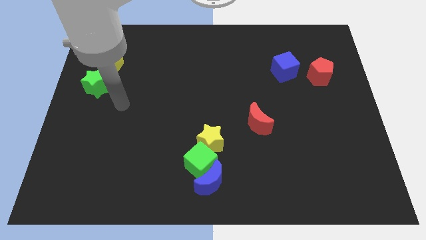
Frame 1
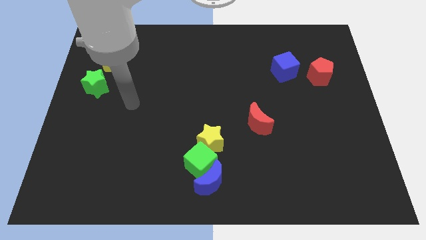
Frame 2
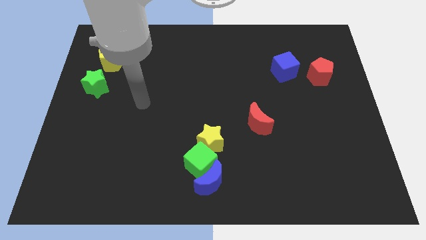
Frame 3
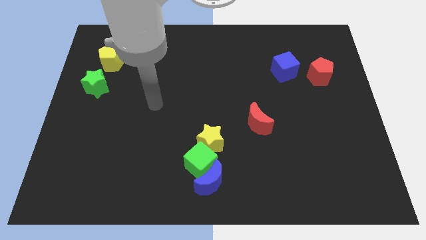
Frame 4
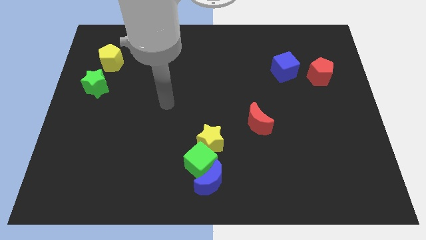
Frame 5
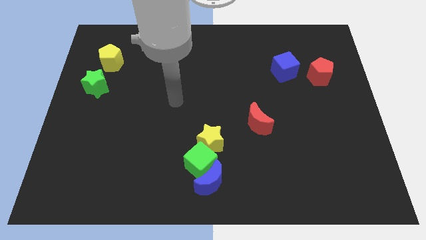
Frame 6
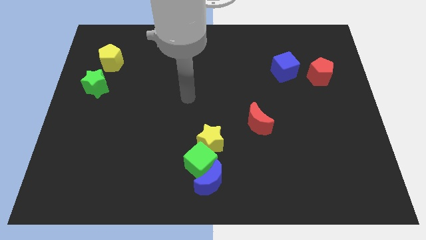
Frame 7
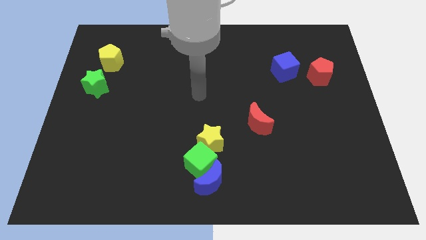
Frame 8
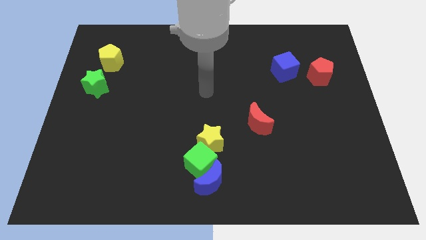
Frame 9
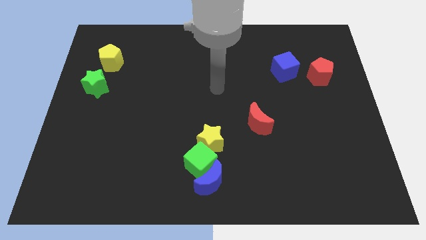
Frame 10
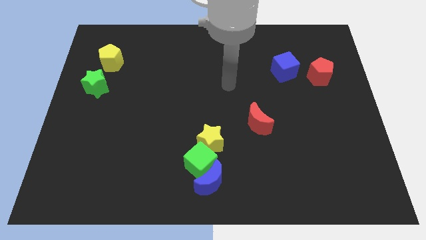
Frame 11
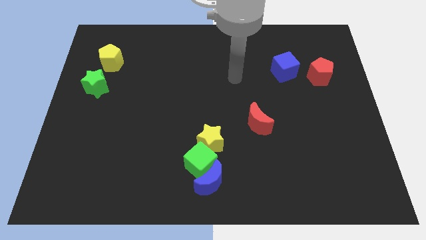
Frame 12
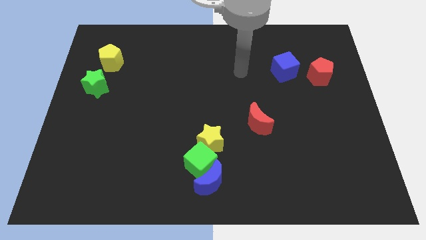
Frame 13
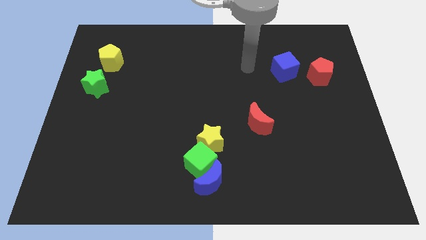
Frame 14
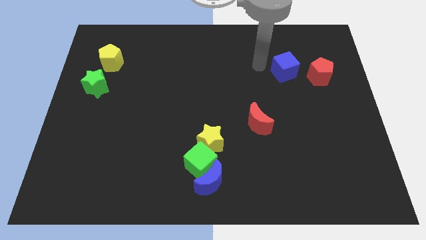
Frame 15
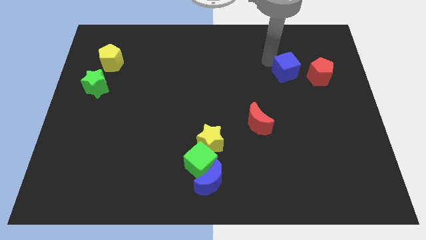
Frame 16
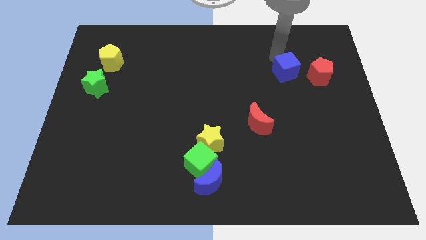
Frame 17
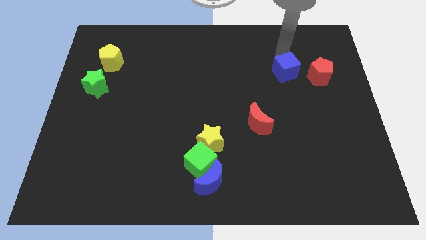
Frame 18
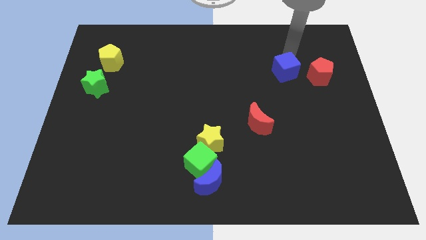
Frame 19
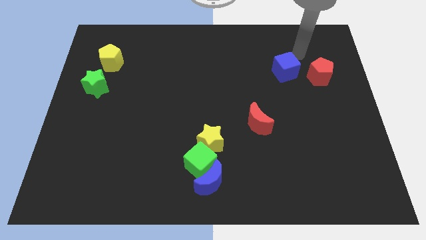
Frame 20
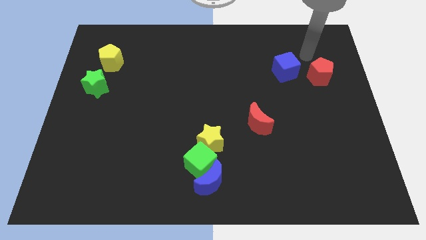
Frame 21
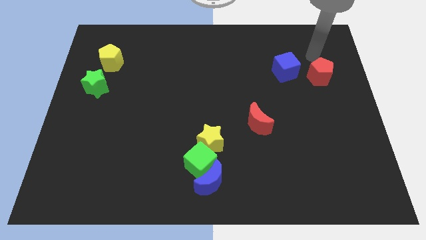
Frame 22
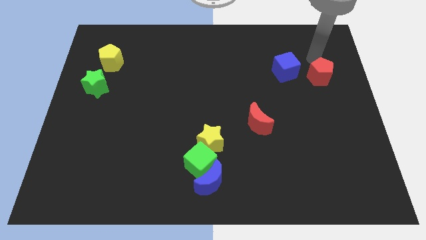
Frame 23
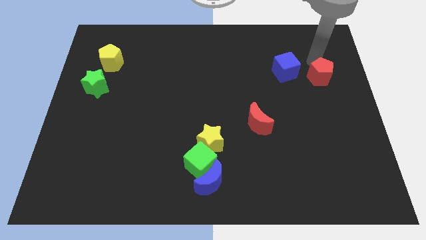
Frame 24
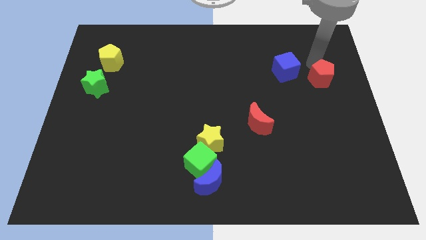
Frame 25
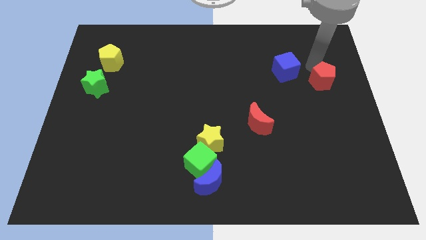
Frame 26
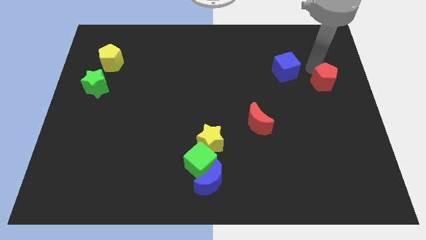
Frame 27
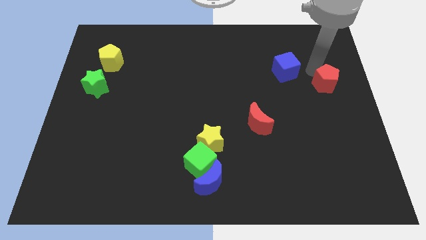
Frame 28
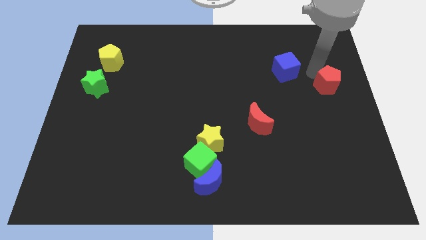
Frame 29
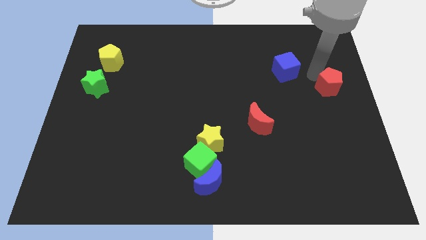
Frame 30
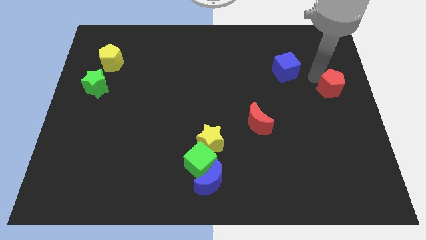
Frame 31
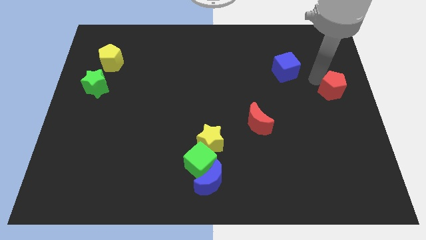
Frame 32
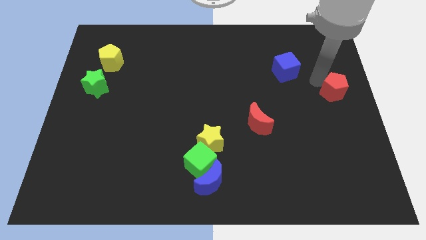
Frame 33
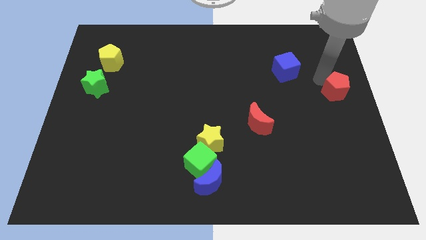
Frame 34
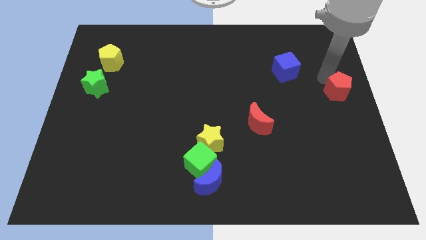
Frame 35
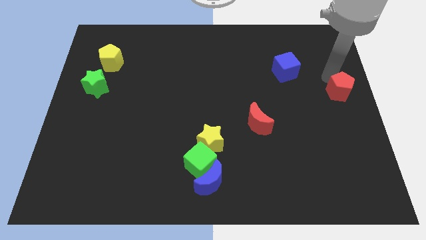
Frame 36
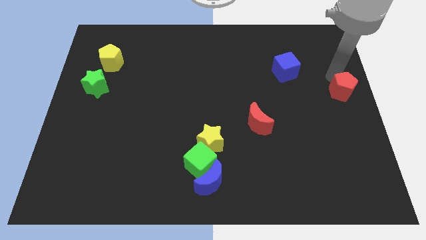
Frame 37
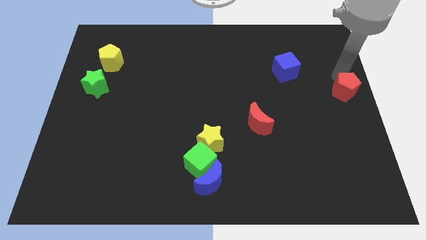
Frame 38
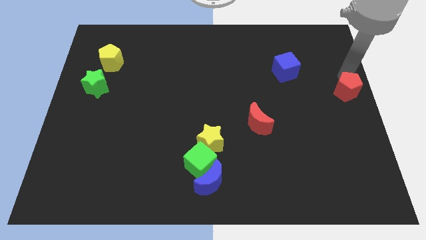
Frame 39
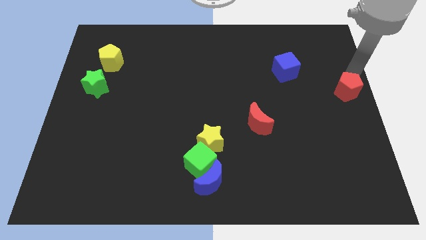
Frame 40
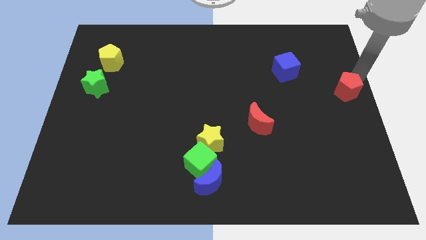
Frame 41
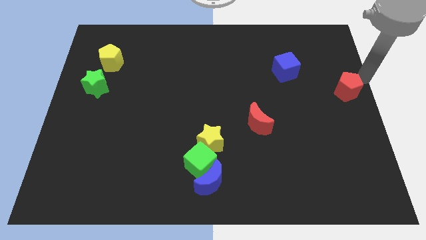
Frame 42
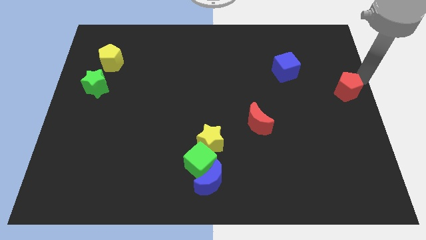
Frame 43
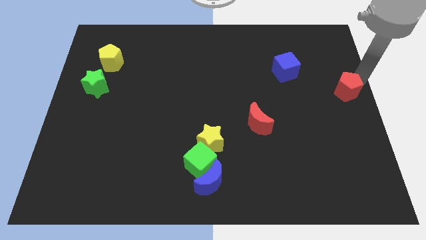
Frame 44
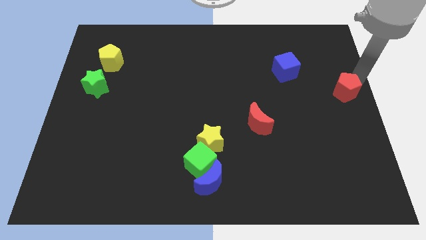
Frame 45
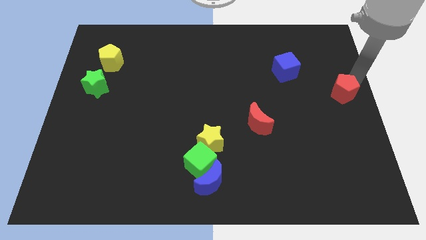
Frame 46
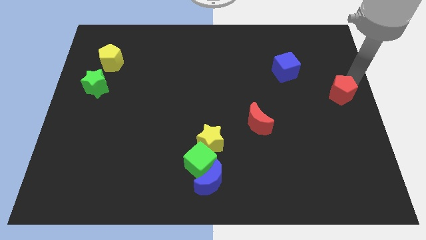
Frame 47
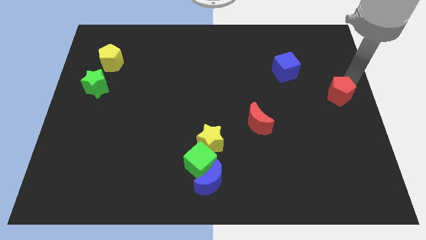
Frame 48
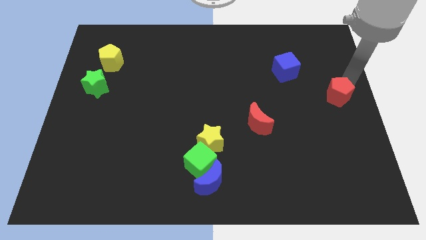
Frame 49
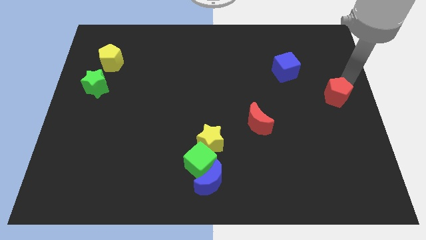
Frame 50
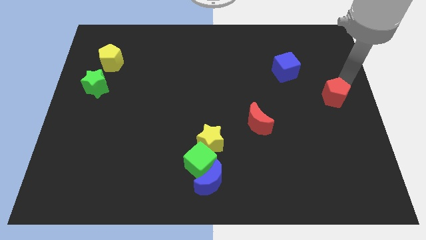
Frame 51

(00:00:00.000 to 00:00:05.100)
slightly push the red pentagon down

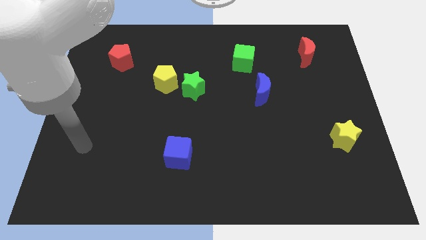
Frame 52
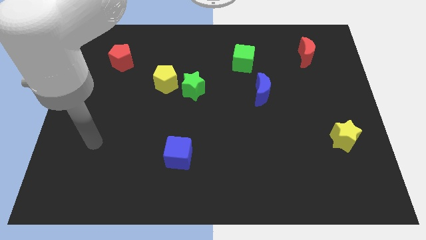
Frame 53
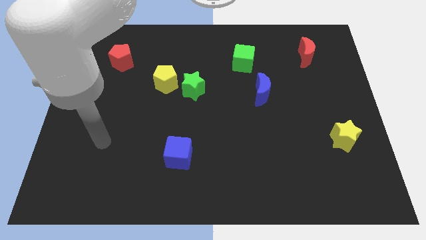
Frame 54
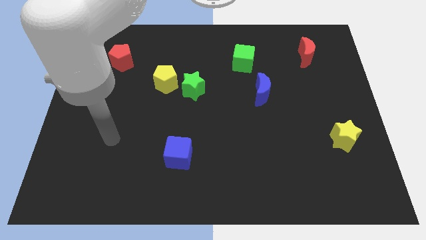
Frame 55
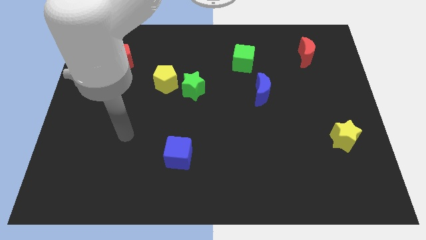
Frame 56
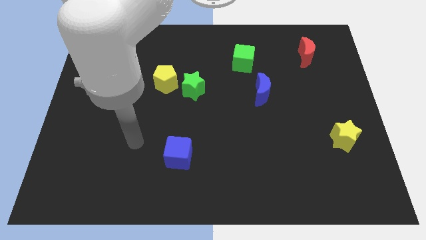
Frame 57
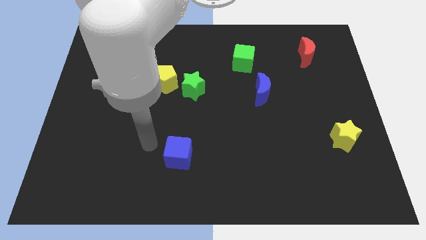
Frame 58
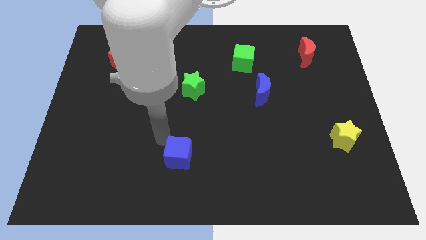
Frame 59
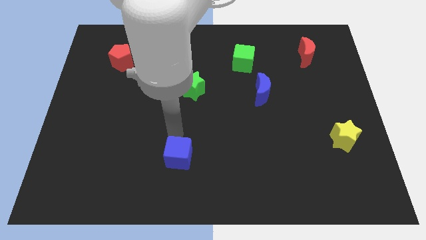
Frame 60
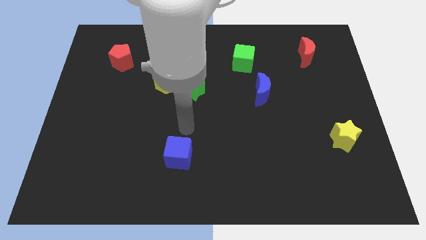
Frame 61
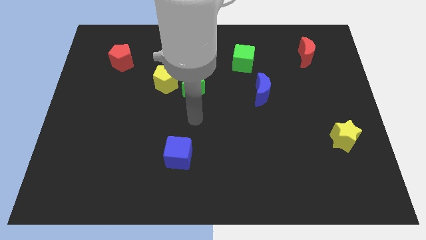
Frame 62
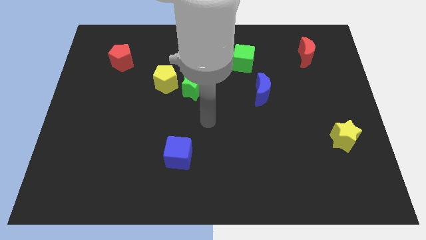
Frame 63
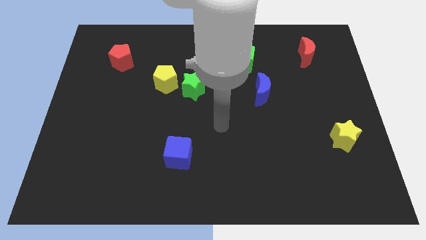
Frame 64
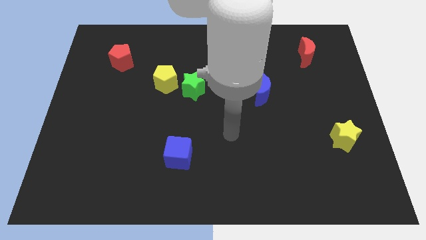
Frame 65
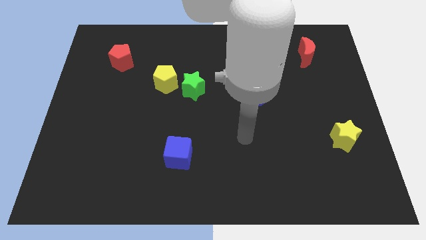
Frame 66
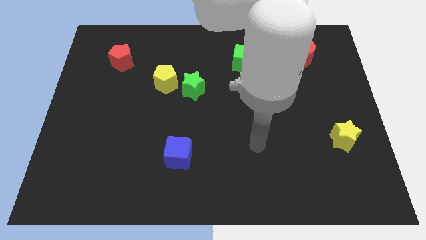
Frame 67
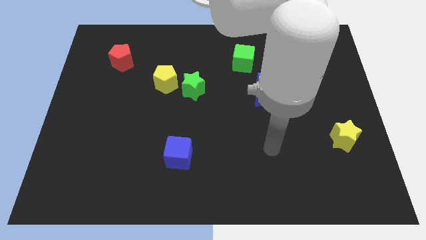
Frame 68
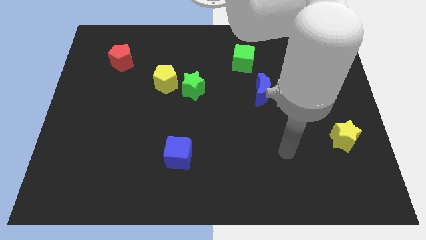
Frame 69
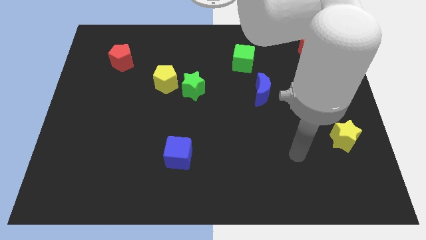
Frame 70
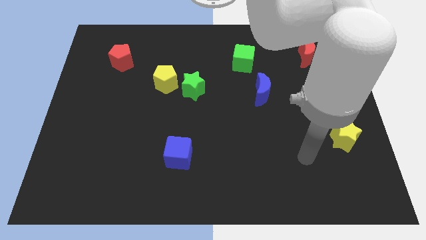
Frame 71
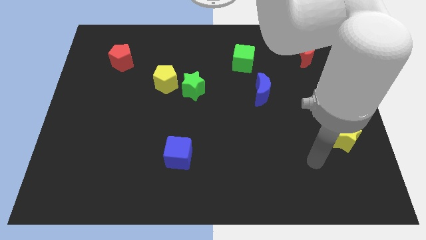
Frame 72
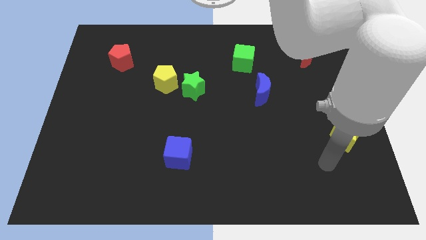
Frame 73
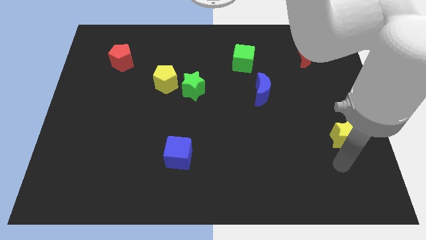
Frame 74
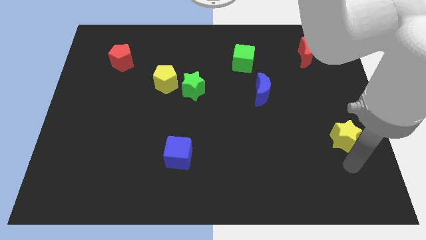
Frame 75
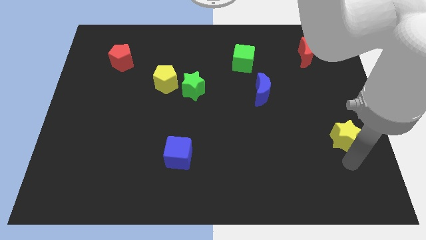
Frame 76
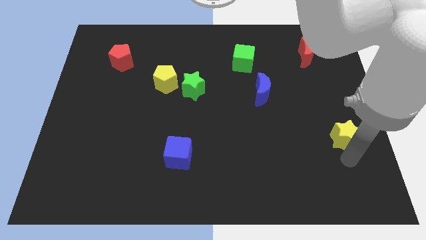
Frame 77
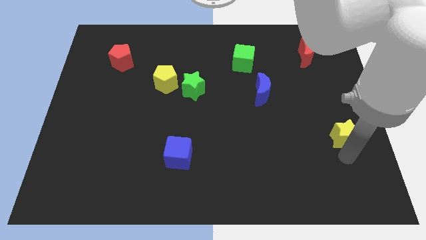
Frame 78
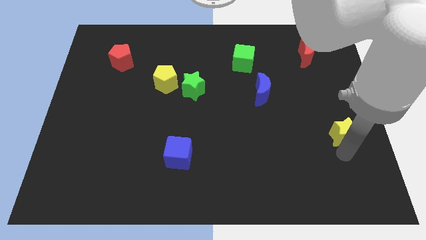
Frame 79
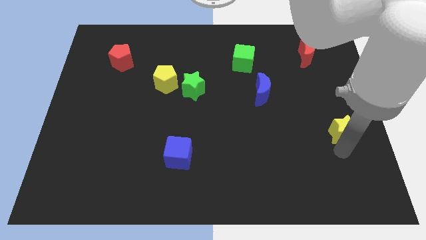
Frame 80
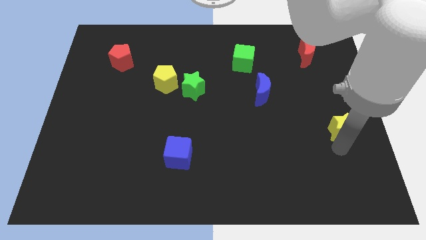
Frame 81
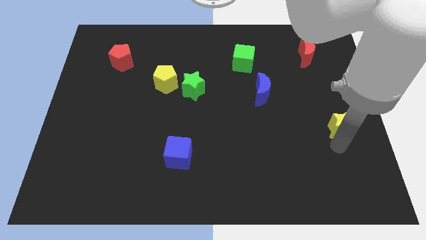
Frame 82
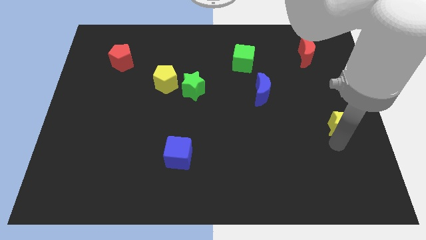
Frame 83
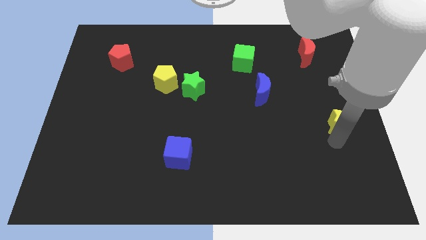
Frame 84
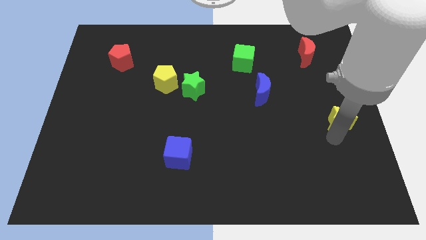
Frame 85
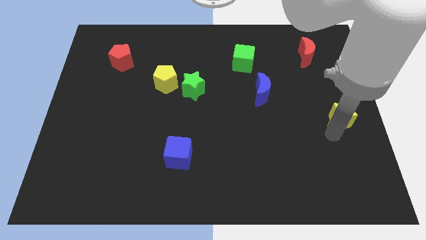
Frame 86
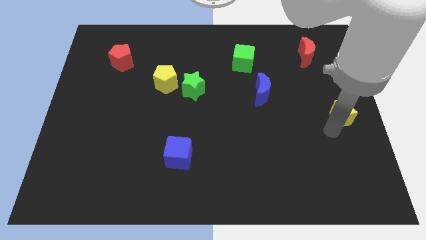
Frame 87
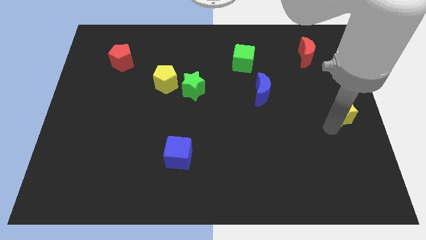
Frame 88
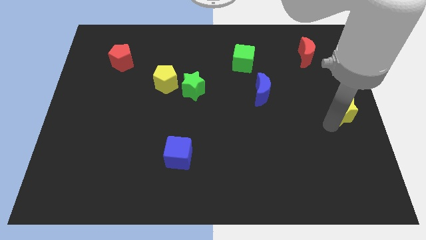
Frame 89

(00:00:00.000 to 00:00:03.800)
push the yellow star upwards a bit
